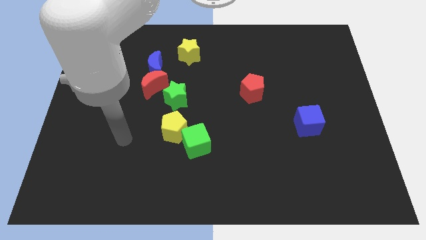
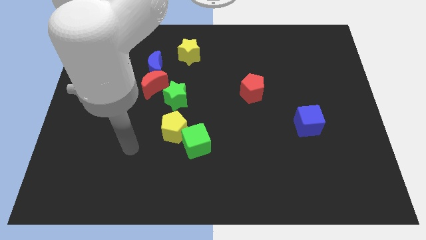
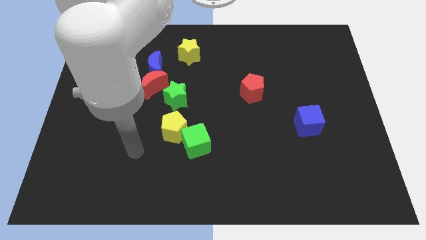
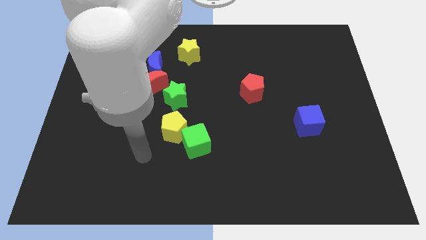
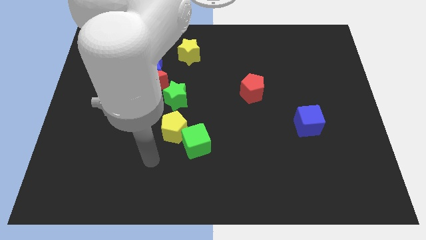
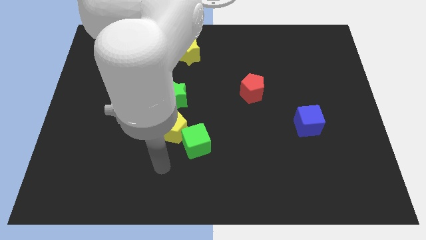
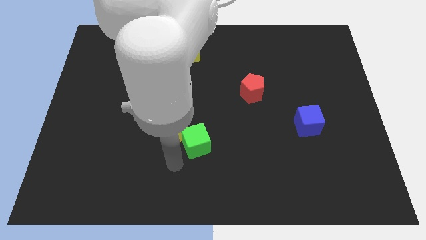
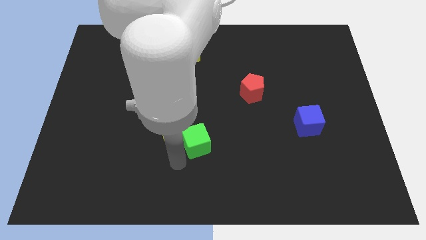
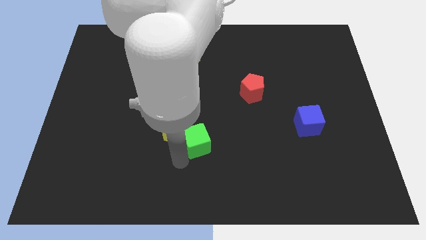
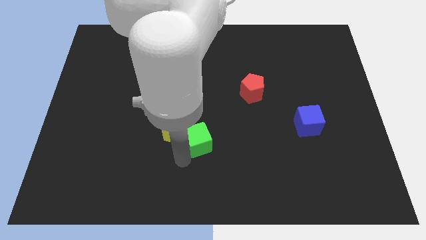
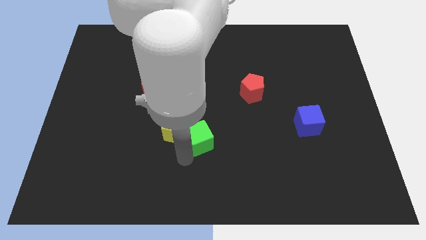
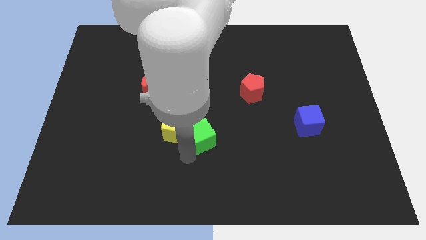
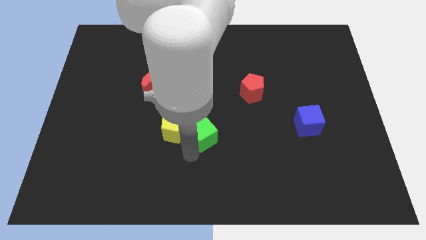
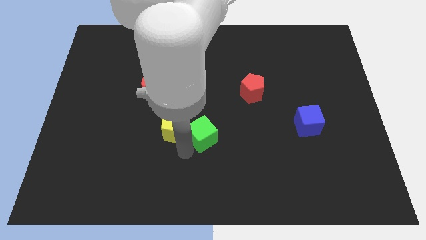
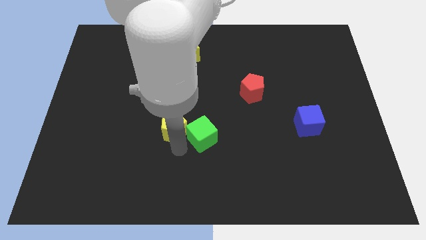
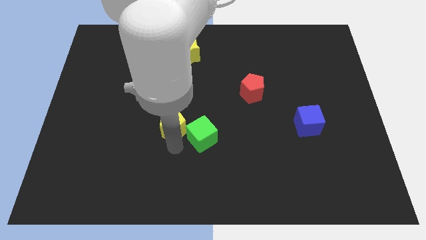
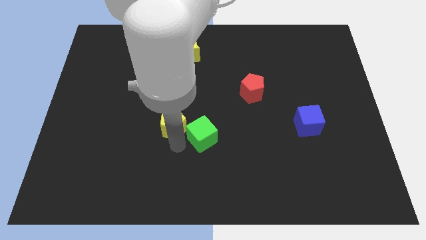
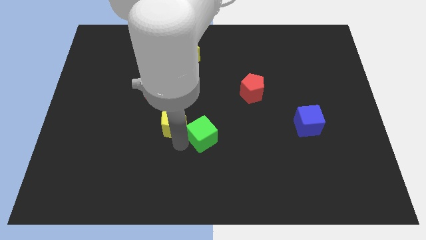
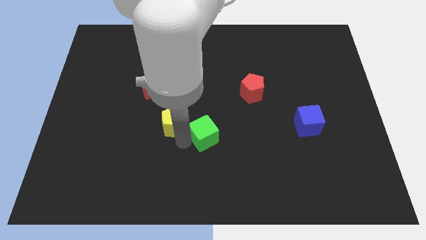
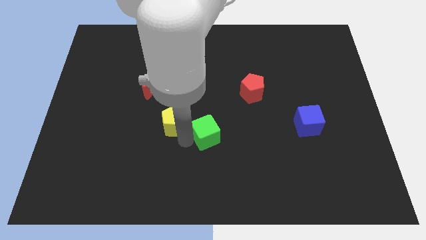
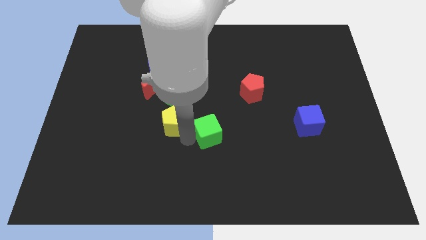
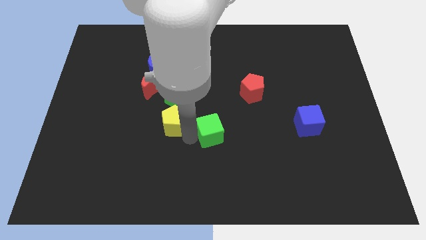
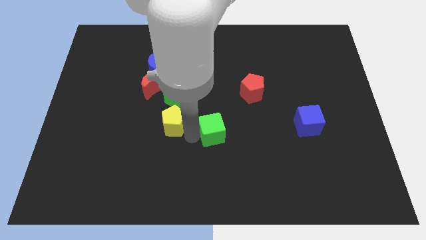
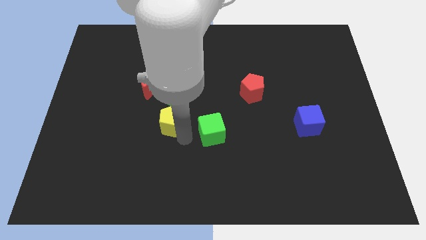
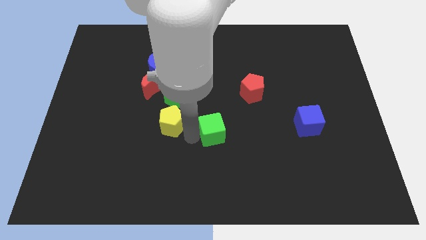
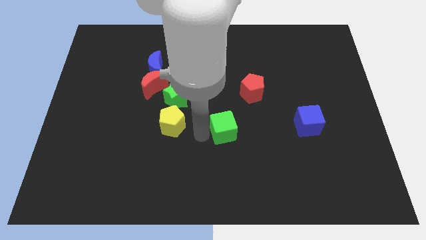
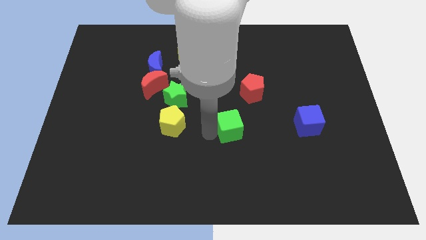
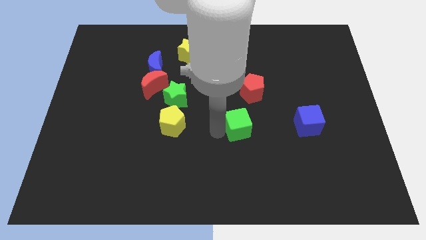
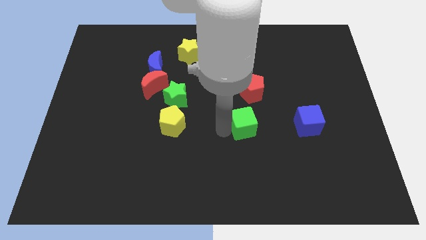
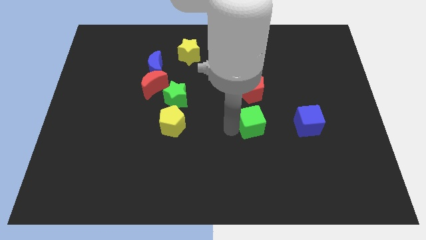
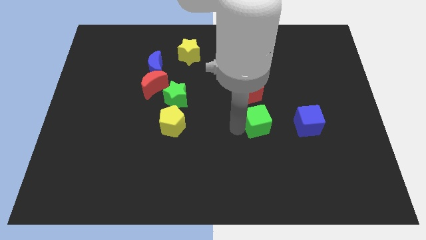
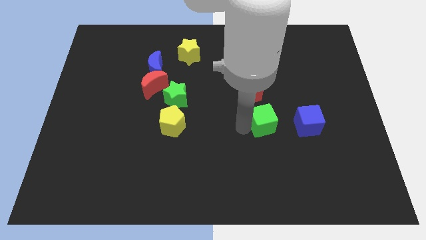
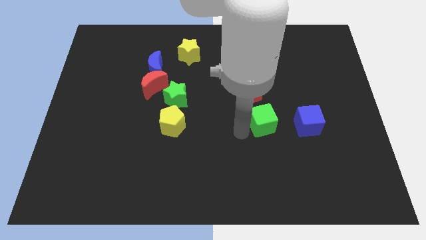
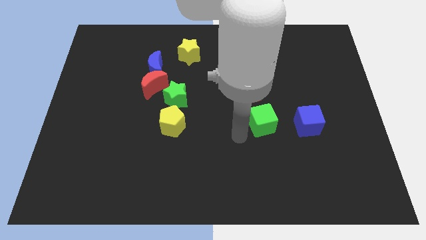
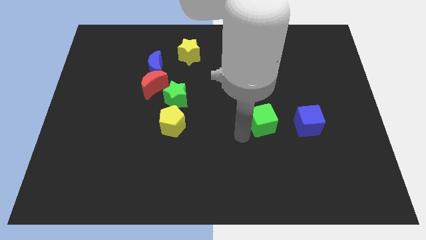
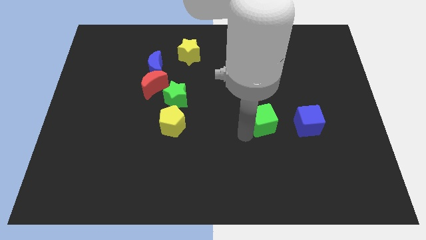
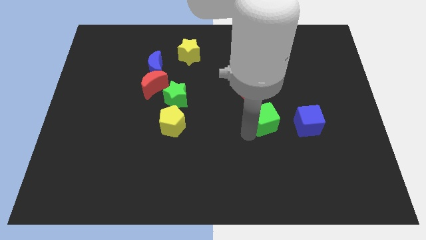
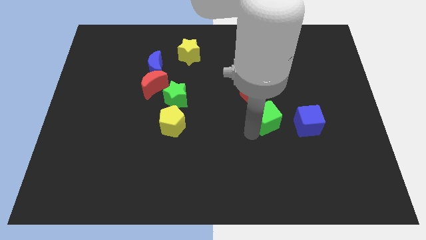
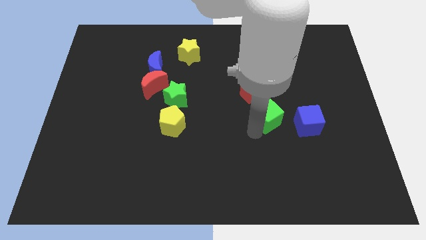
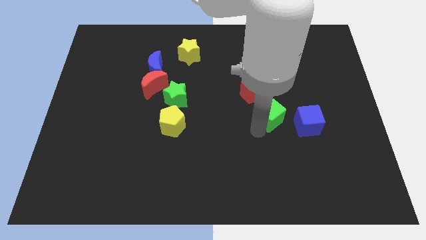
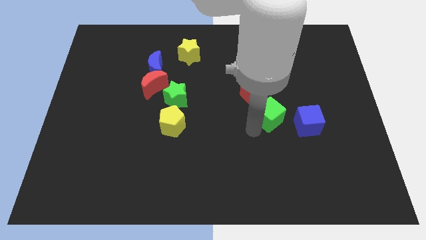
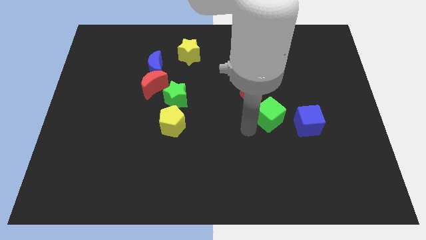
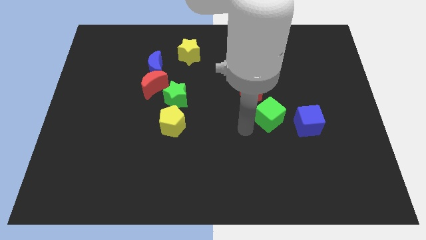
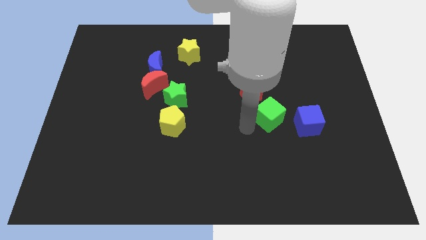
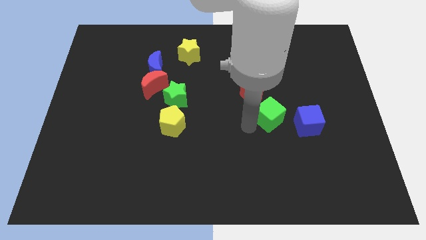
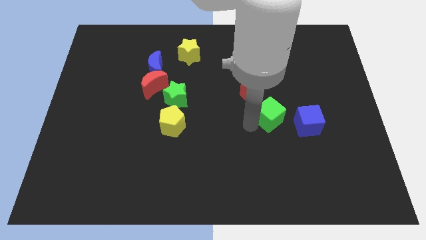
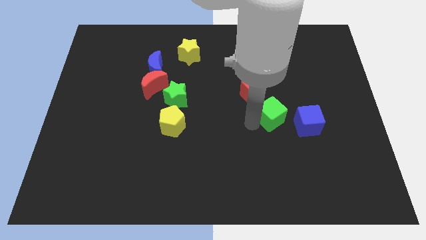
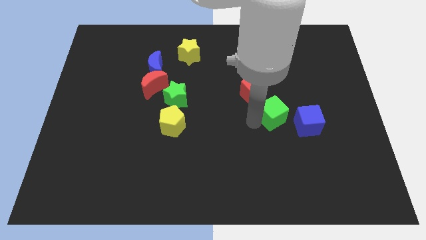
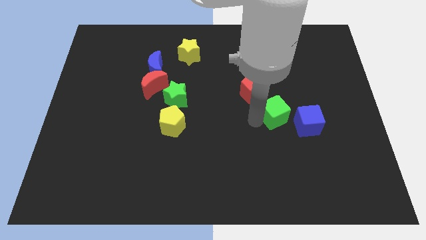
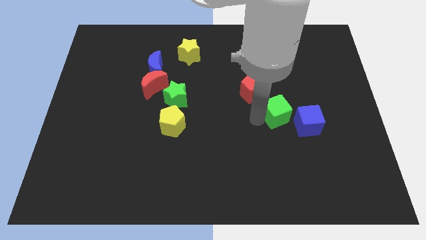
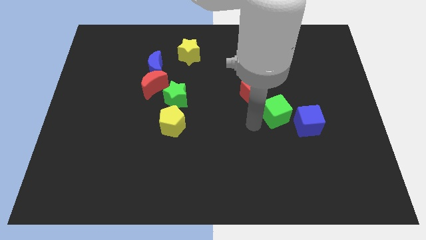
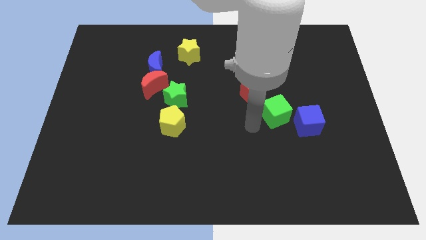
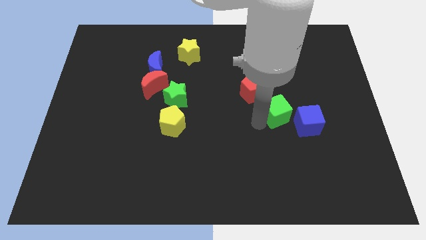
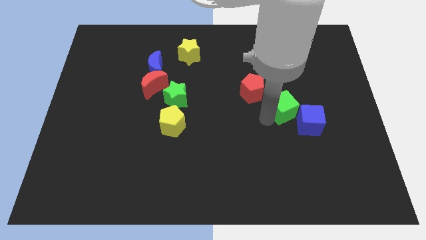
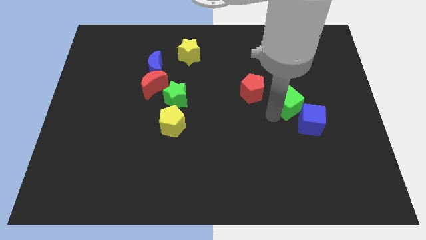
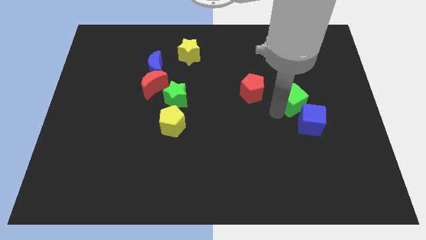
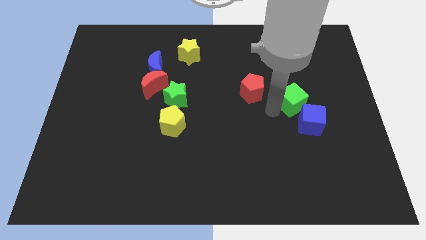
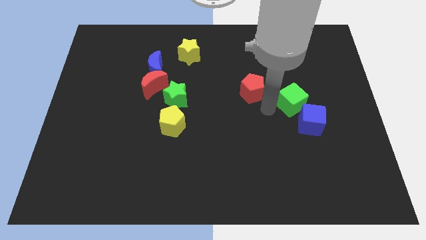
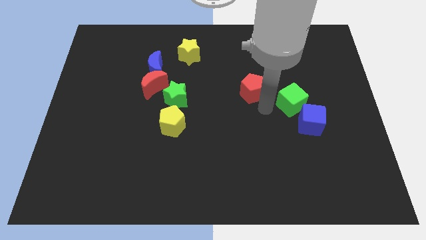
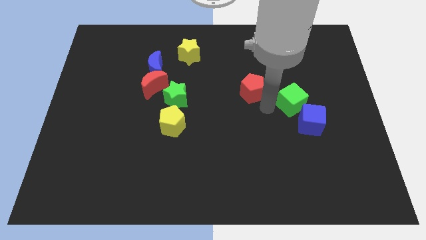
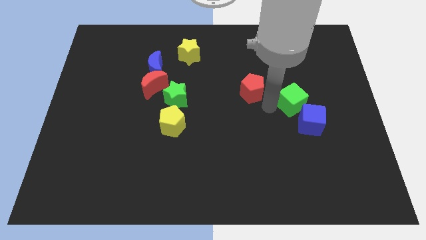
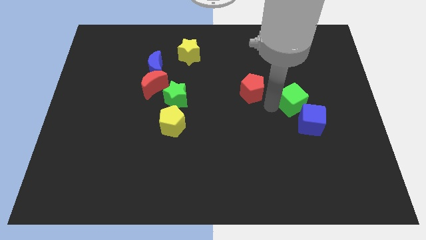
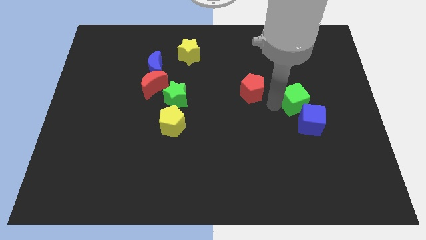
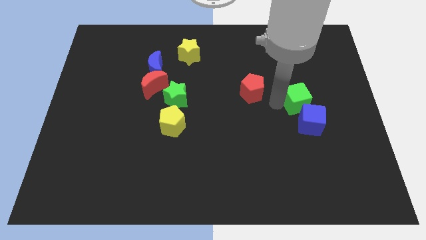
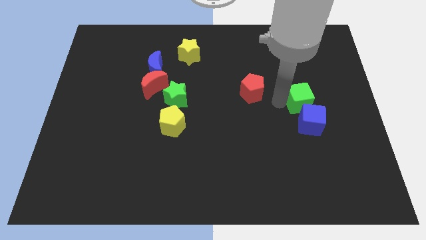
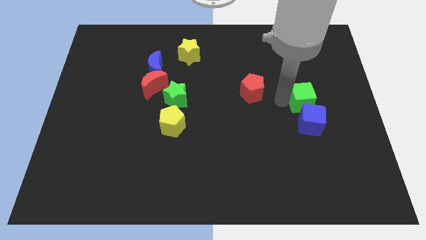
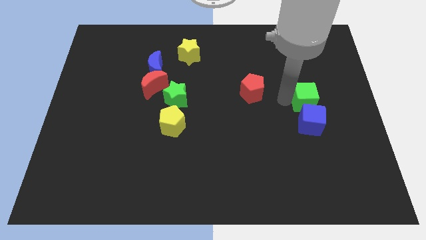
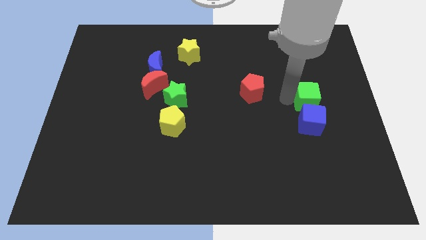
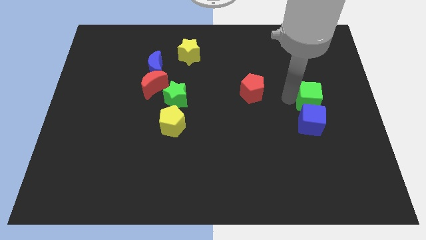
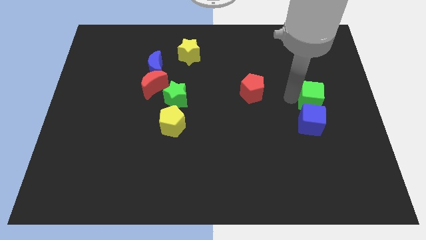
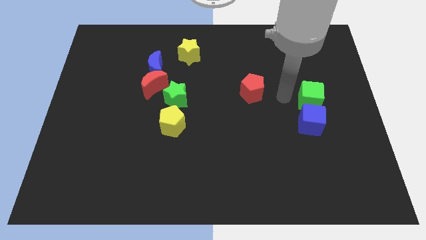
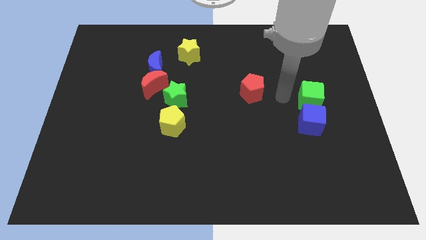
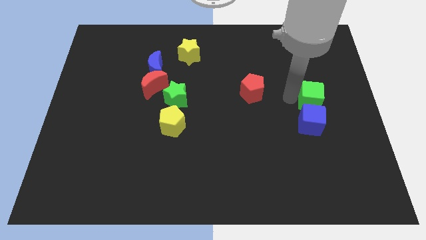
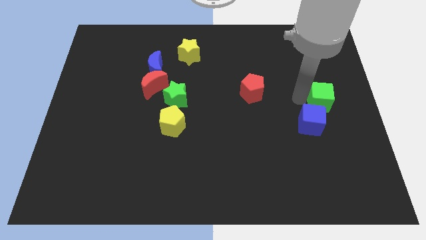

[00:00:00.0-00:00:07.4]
put the green cube to the center right
